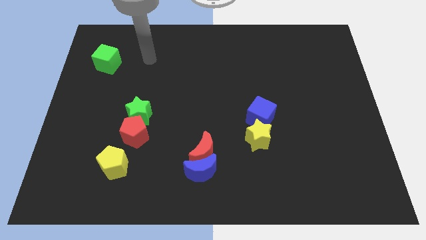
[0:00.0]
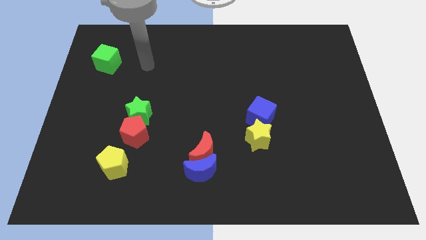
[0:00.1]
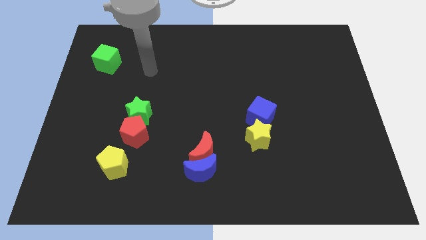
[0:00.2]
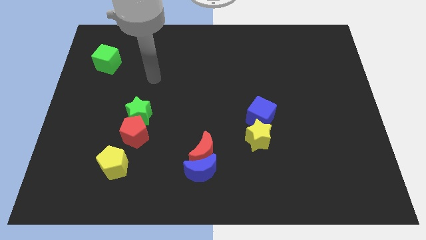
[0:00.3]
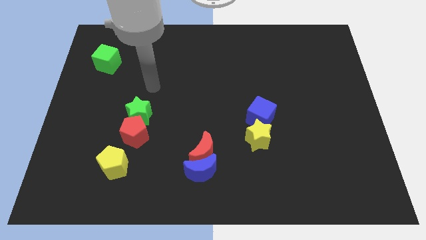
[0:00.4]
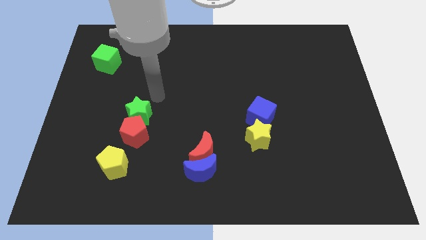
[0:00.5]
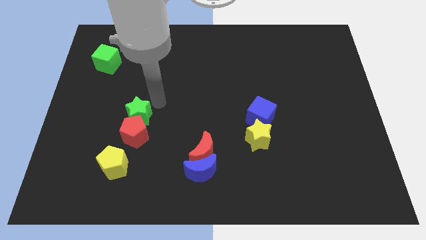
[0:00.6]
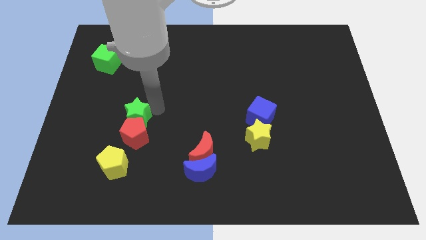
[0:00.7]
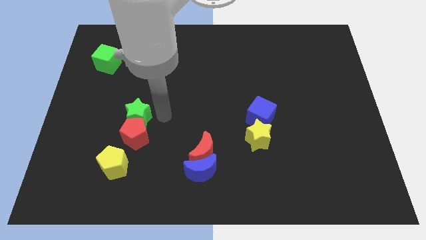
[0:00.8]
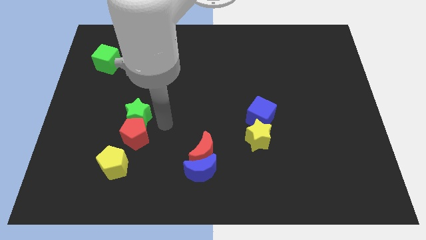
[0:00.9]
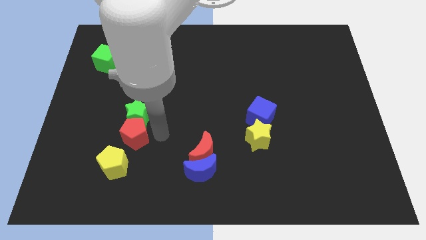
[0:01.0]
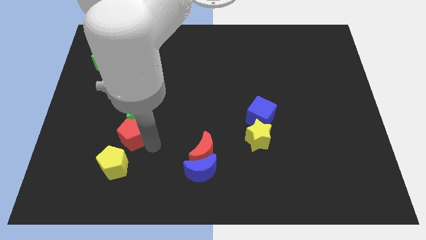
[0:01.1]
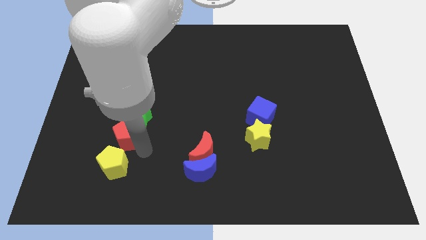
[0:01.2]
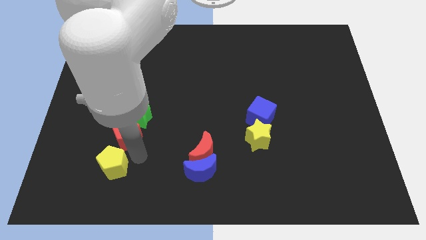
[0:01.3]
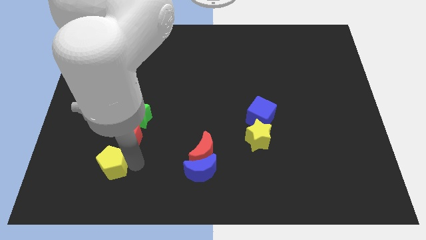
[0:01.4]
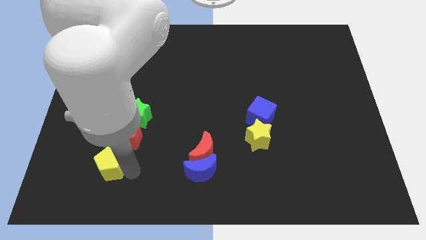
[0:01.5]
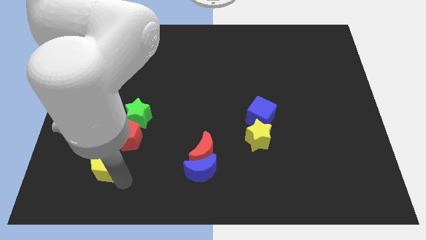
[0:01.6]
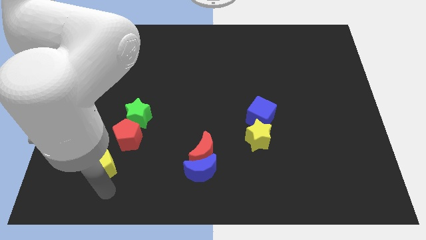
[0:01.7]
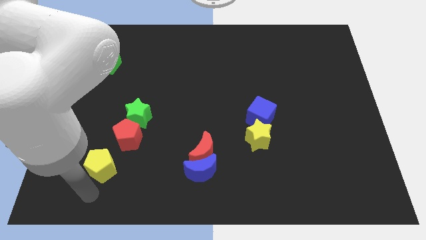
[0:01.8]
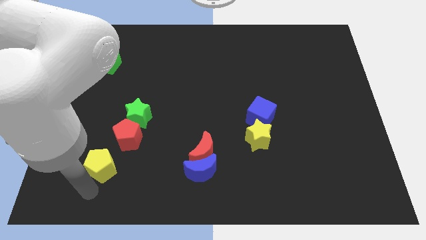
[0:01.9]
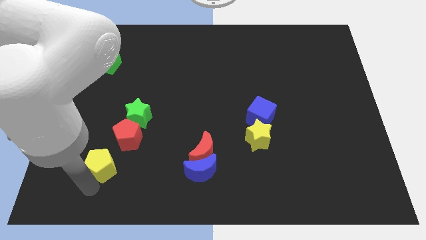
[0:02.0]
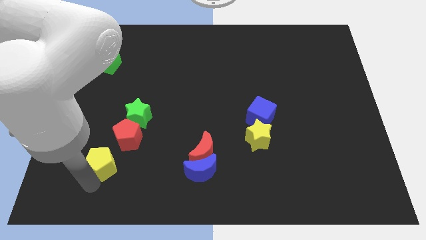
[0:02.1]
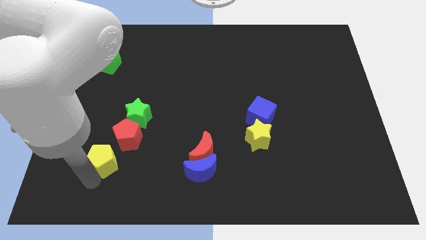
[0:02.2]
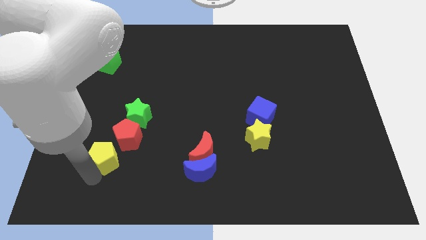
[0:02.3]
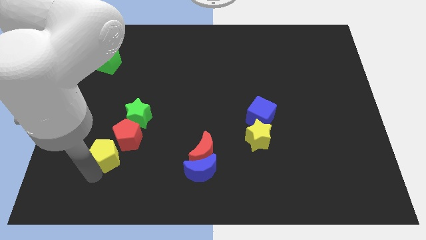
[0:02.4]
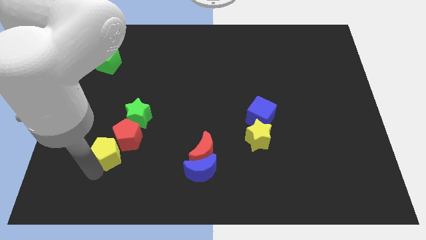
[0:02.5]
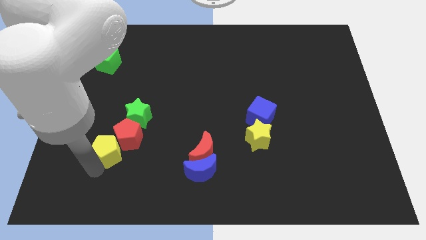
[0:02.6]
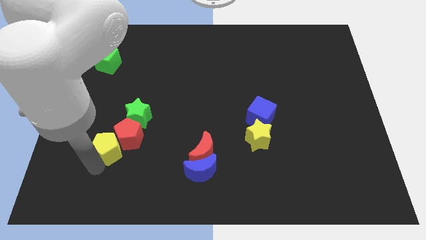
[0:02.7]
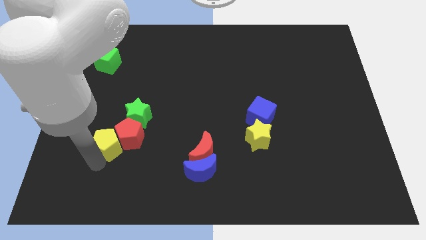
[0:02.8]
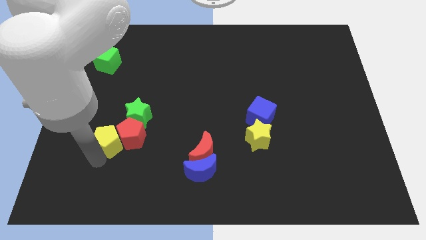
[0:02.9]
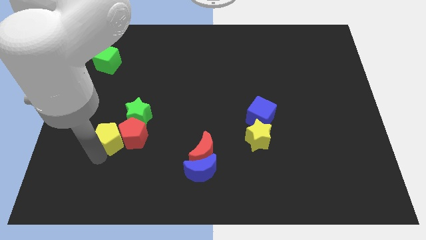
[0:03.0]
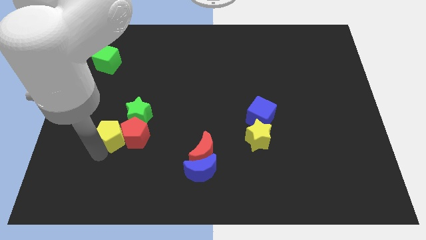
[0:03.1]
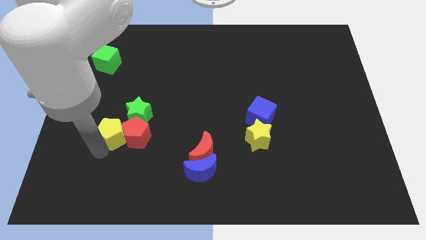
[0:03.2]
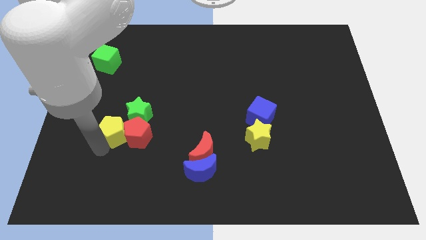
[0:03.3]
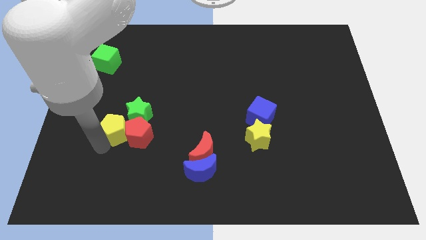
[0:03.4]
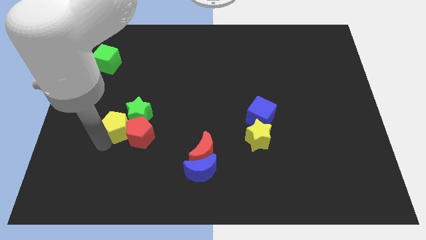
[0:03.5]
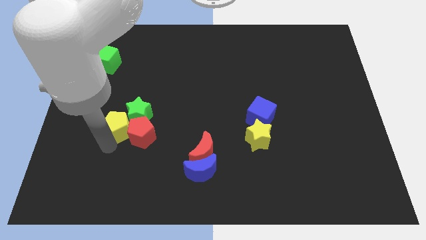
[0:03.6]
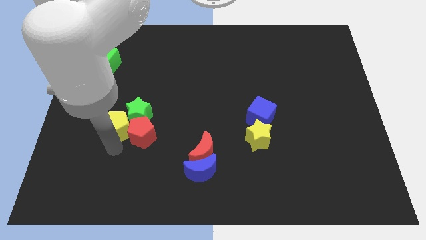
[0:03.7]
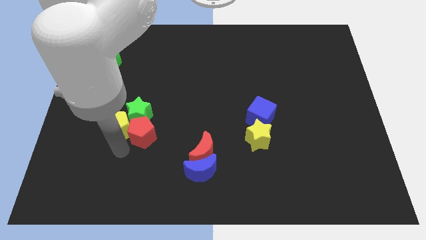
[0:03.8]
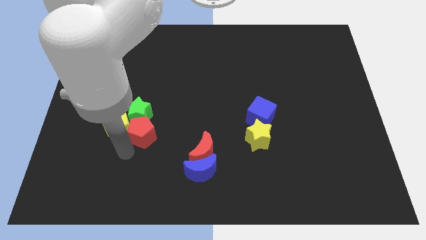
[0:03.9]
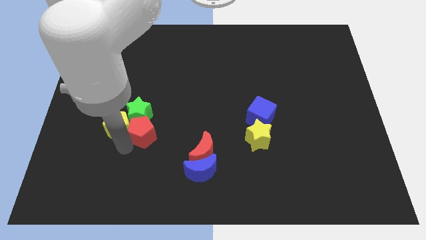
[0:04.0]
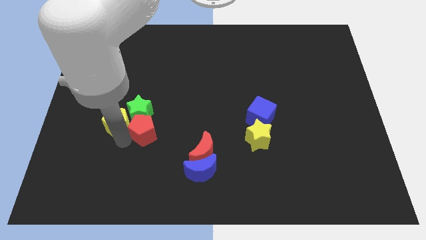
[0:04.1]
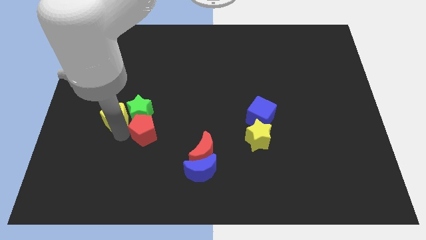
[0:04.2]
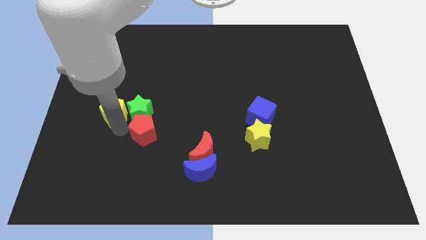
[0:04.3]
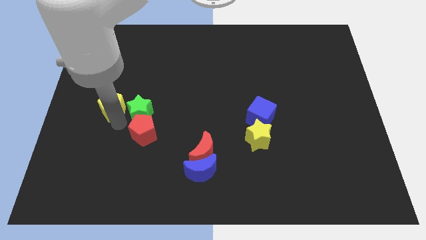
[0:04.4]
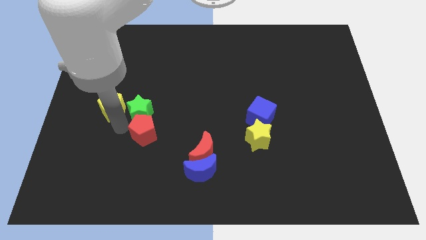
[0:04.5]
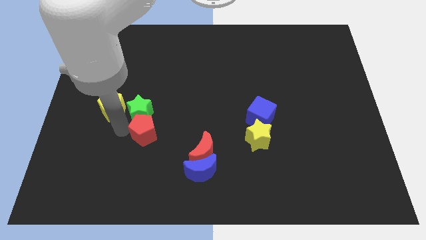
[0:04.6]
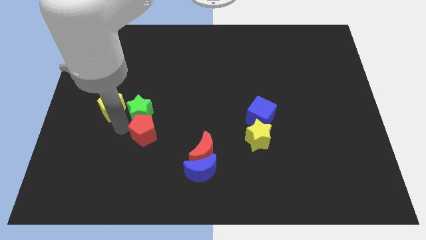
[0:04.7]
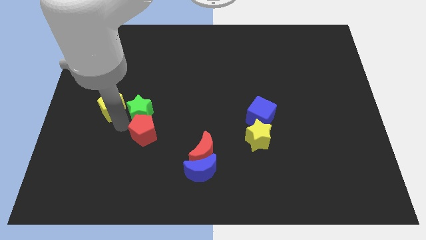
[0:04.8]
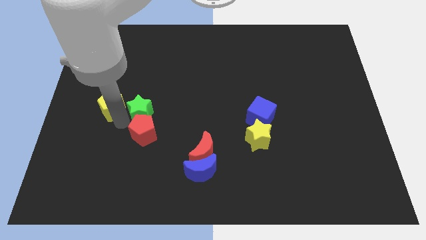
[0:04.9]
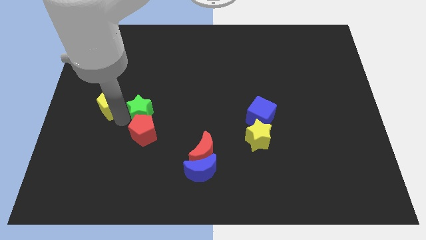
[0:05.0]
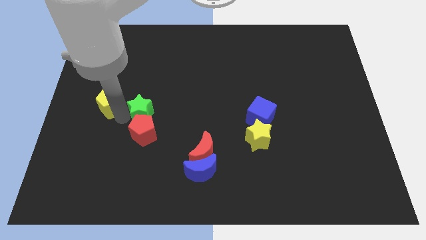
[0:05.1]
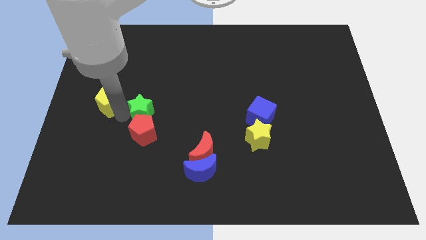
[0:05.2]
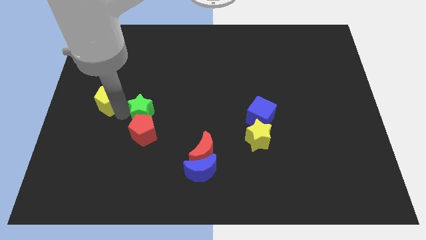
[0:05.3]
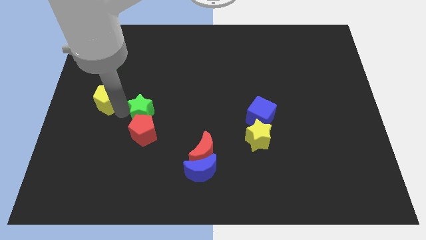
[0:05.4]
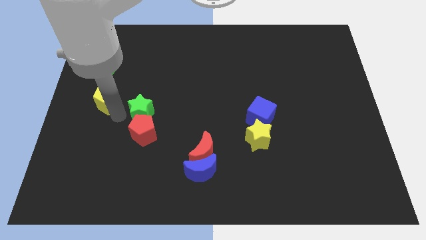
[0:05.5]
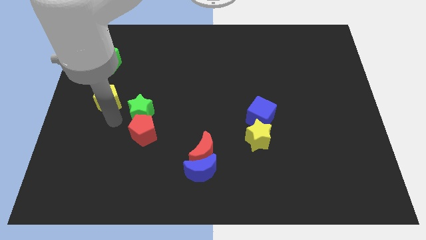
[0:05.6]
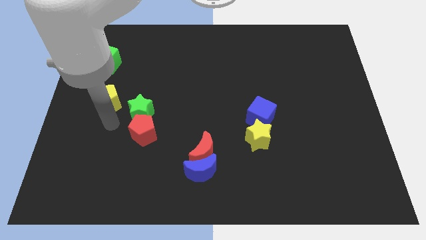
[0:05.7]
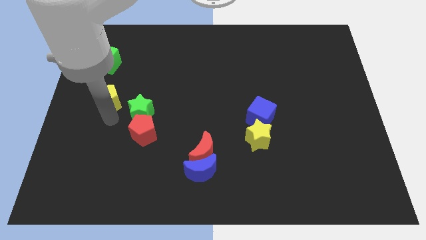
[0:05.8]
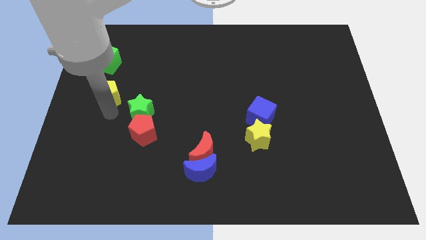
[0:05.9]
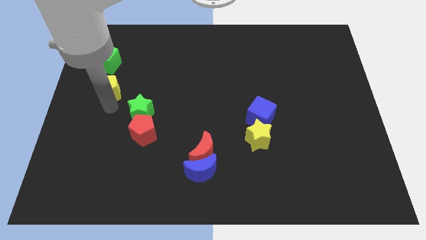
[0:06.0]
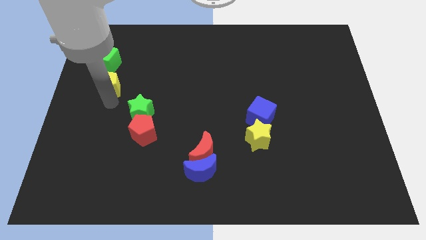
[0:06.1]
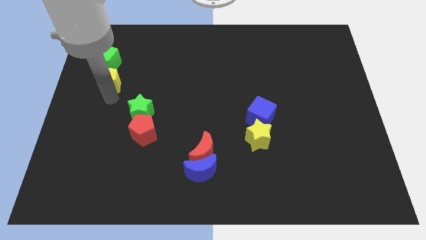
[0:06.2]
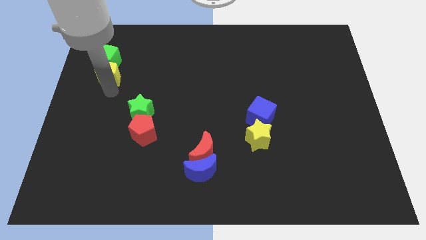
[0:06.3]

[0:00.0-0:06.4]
slide the yellow pentagon to the green cube
